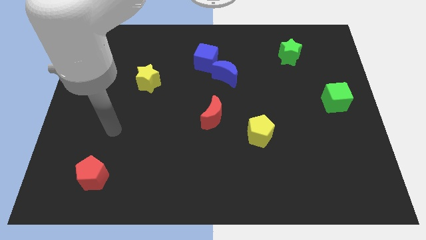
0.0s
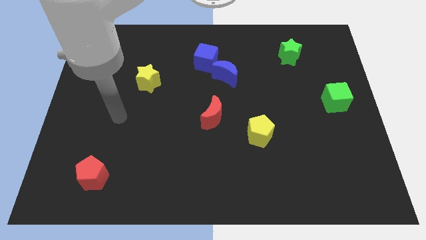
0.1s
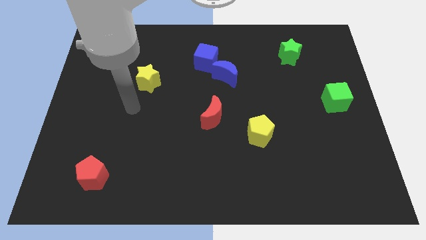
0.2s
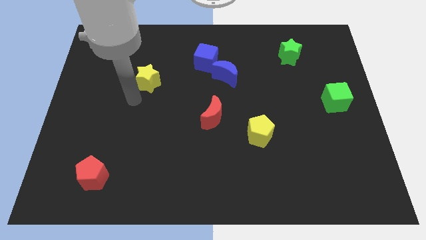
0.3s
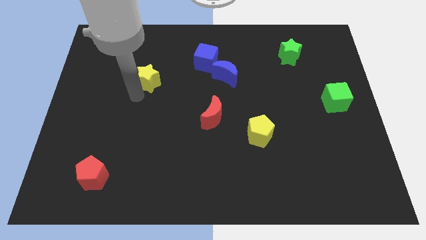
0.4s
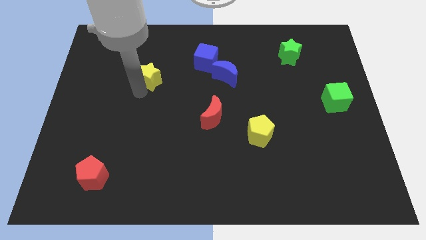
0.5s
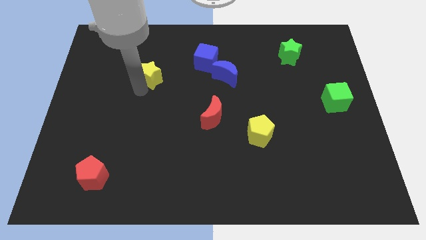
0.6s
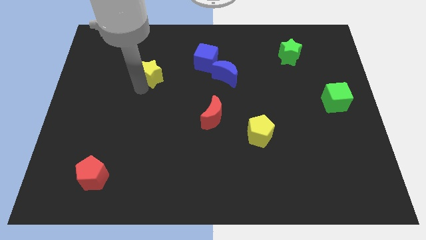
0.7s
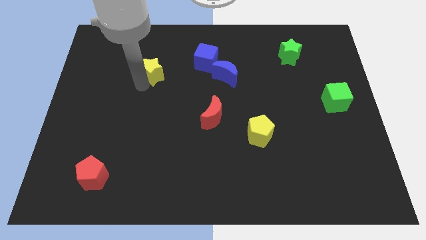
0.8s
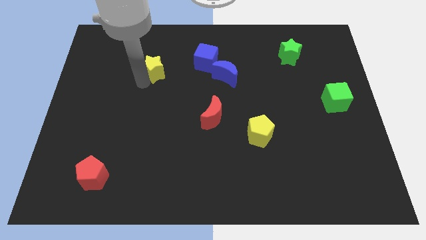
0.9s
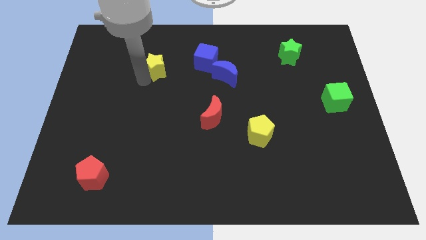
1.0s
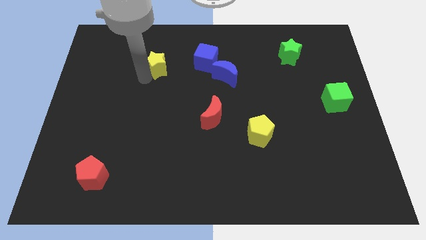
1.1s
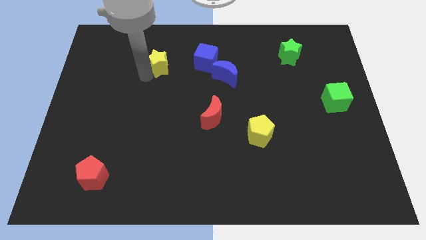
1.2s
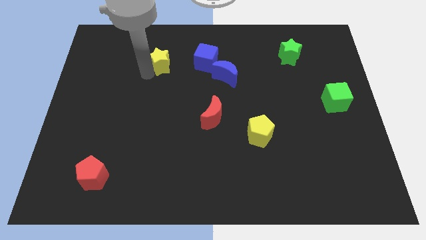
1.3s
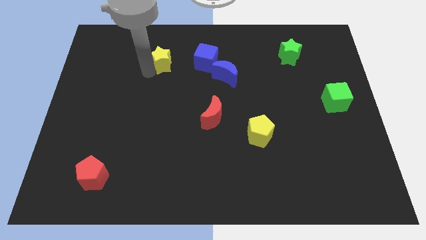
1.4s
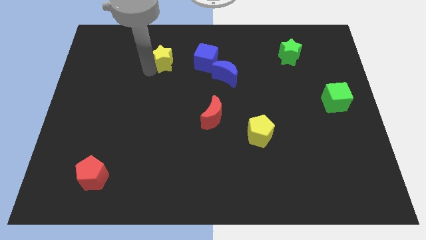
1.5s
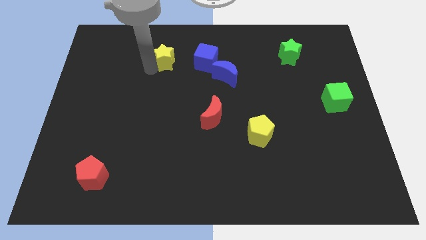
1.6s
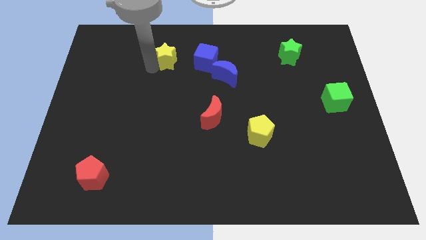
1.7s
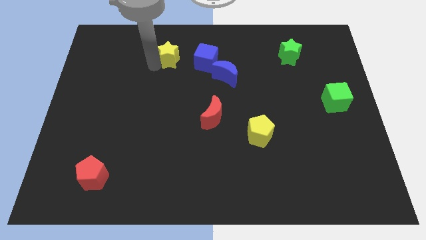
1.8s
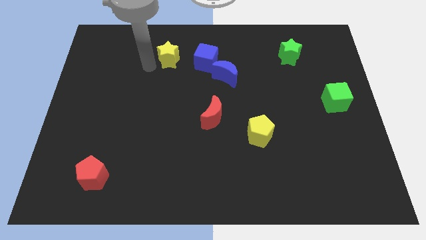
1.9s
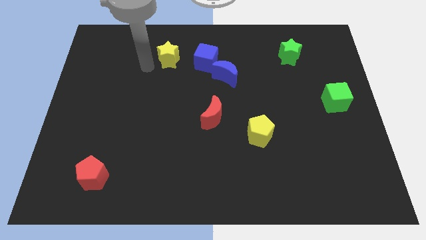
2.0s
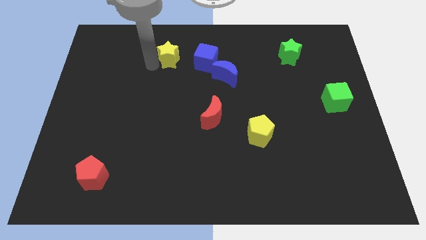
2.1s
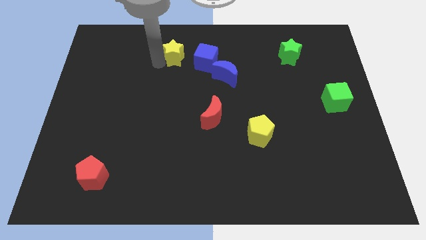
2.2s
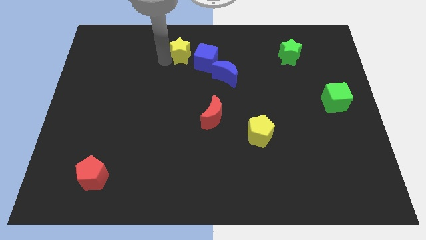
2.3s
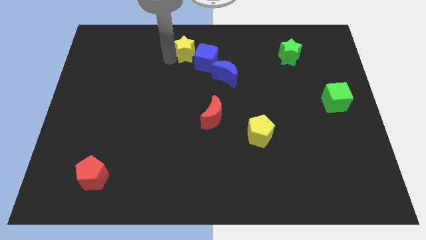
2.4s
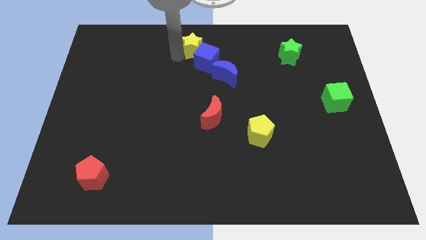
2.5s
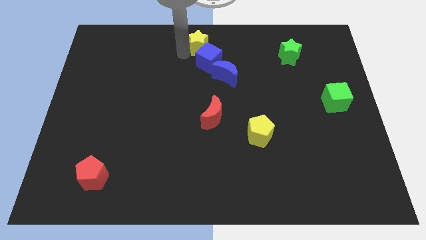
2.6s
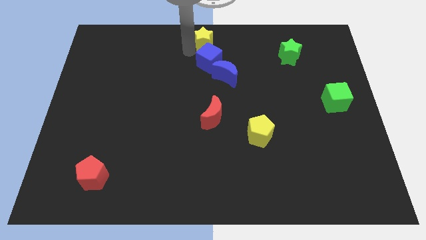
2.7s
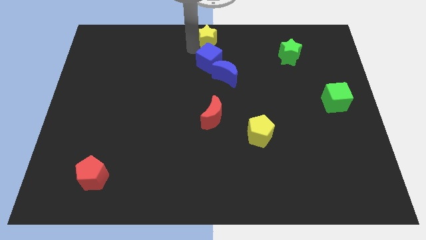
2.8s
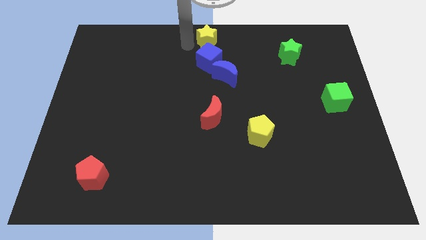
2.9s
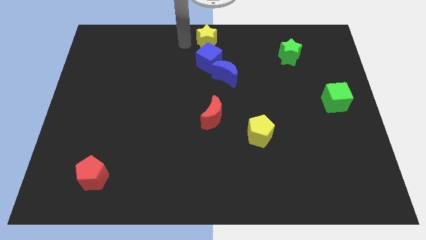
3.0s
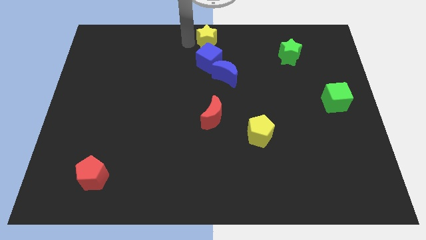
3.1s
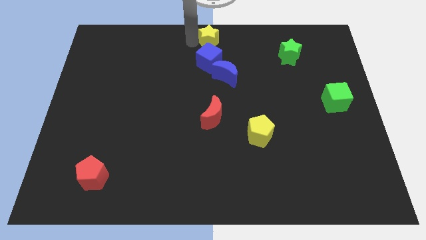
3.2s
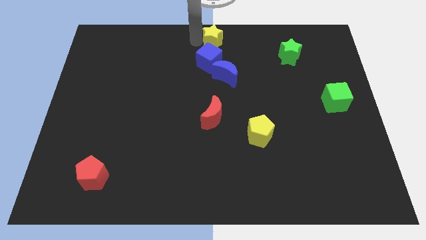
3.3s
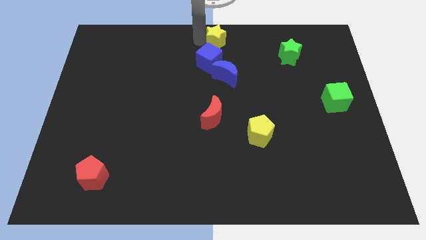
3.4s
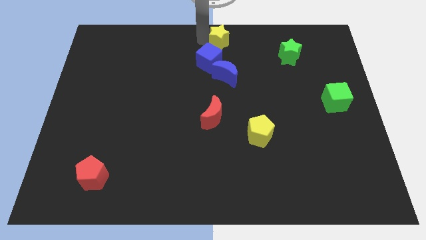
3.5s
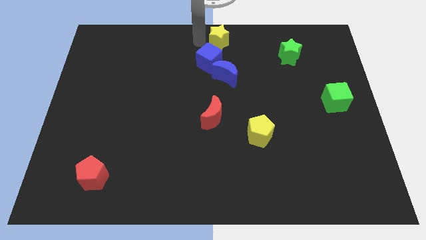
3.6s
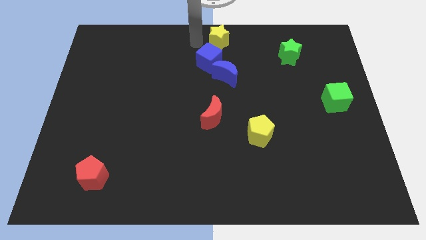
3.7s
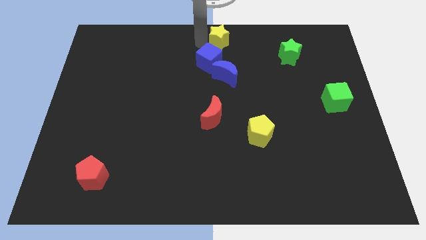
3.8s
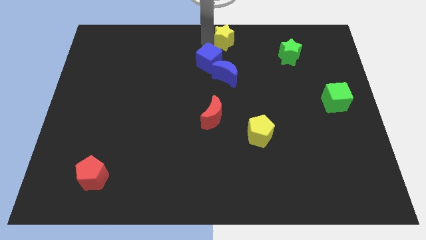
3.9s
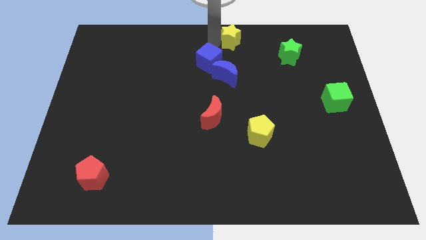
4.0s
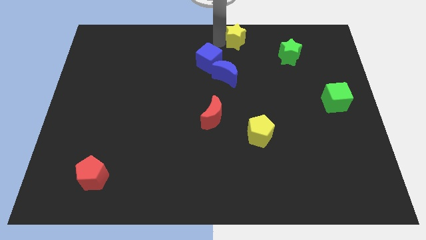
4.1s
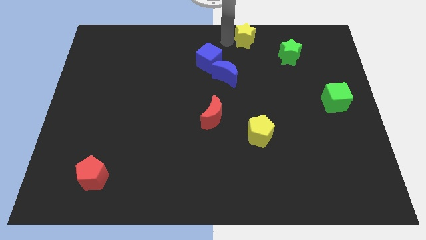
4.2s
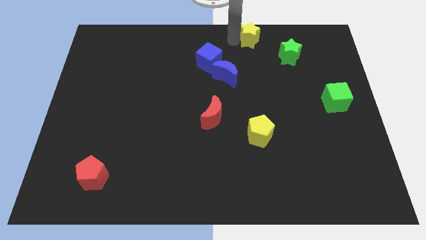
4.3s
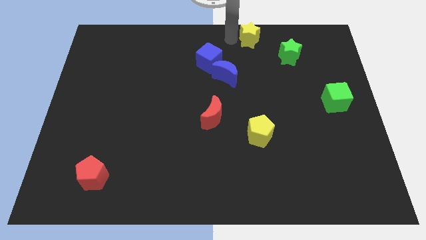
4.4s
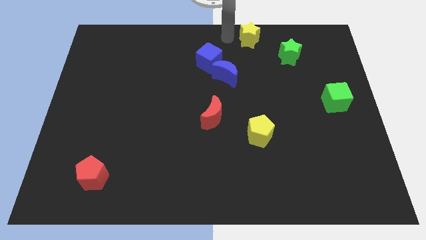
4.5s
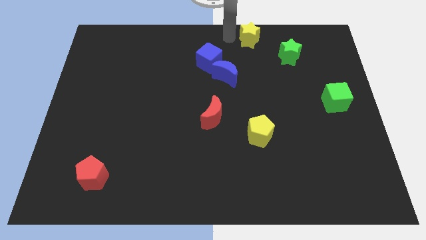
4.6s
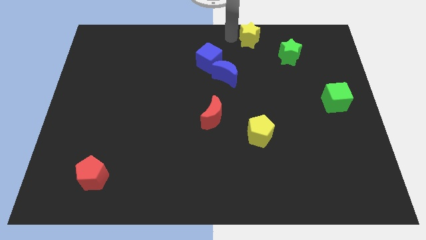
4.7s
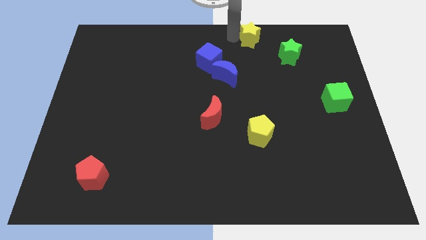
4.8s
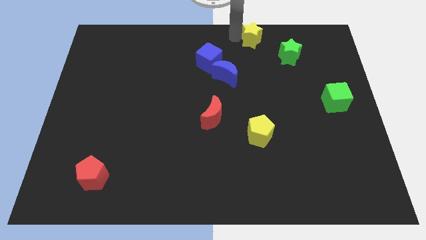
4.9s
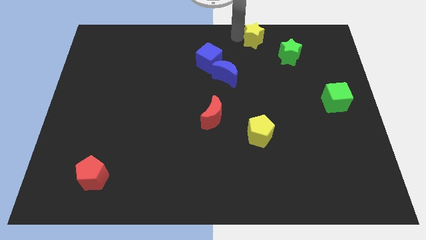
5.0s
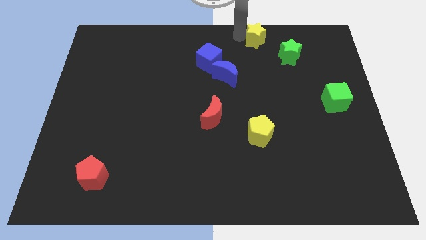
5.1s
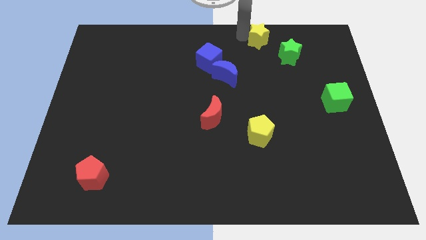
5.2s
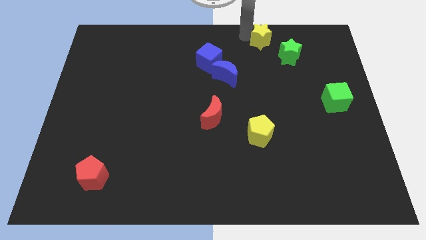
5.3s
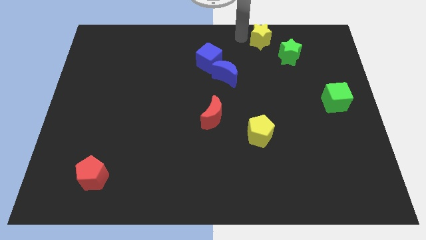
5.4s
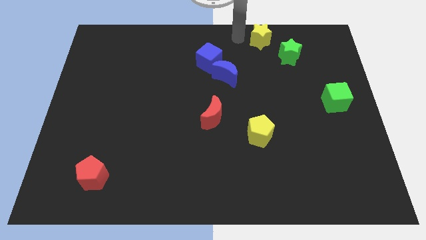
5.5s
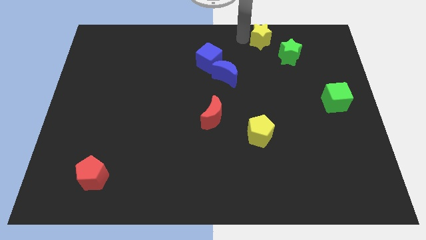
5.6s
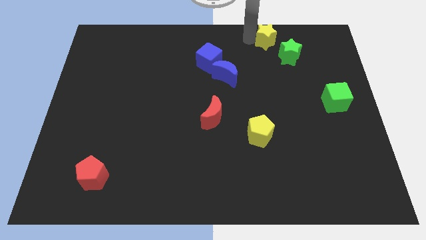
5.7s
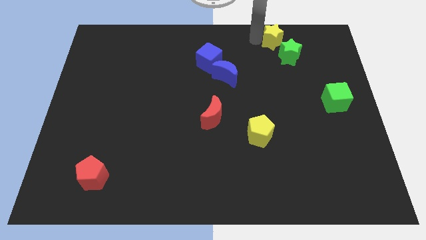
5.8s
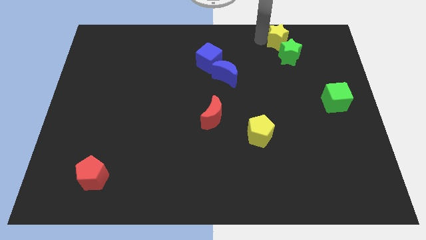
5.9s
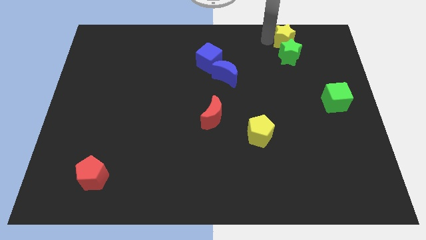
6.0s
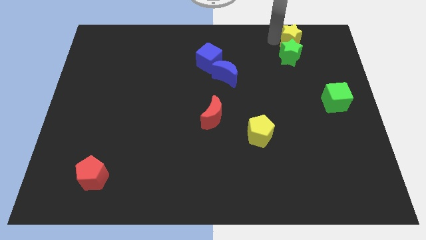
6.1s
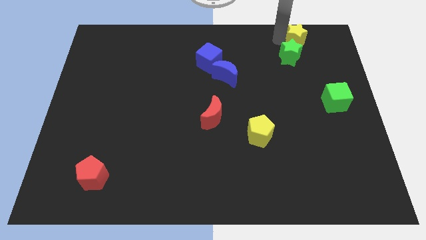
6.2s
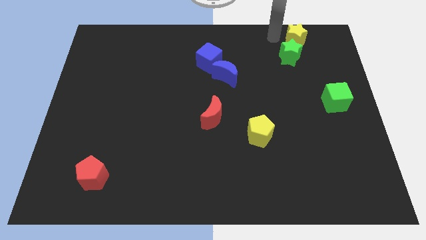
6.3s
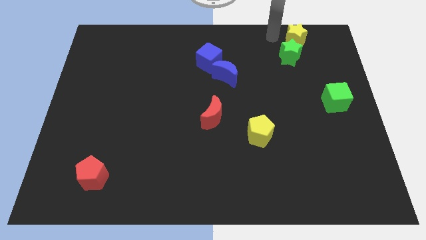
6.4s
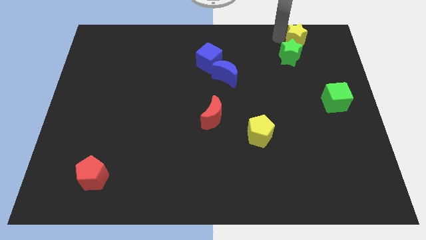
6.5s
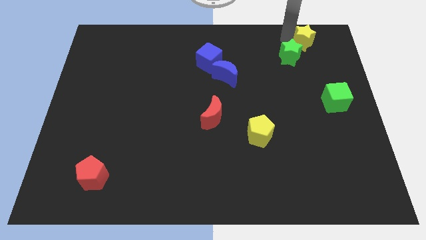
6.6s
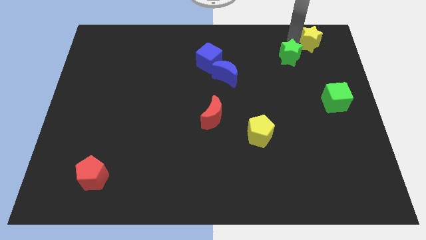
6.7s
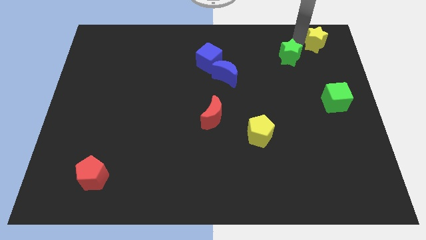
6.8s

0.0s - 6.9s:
push the yellow star to the top right of the board
